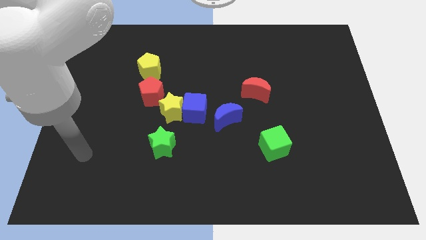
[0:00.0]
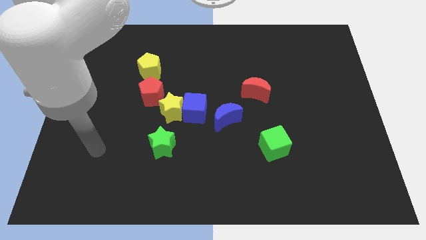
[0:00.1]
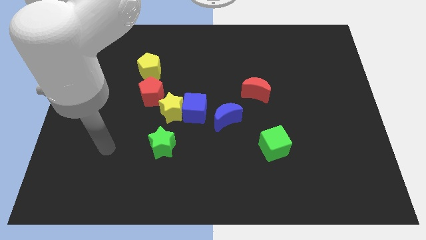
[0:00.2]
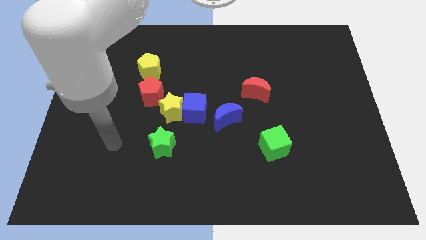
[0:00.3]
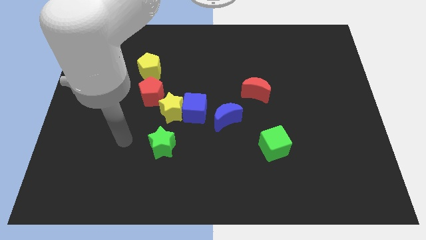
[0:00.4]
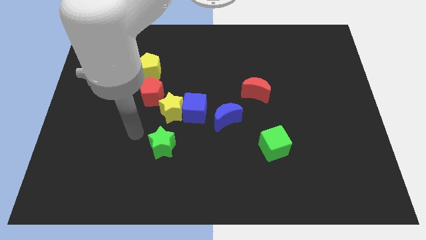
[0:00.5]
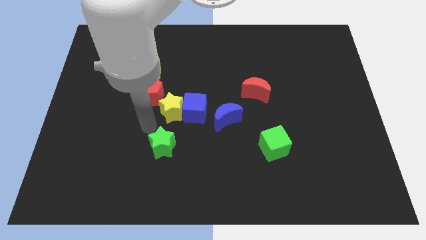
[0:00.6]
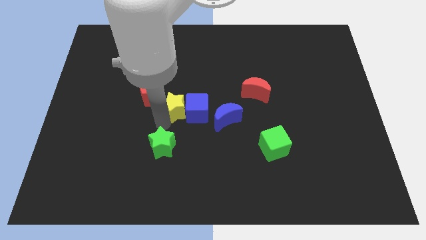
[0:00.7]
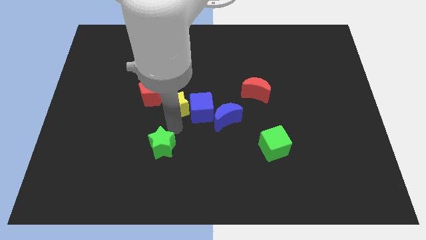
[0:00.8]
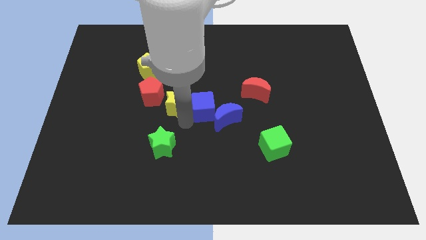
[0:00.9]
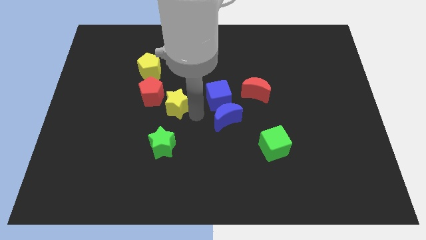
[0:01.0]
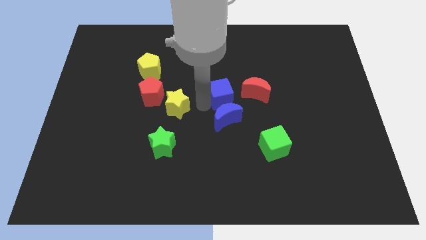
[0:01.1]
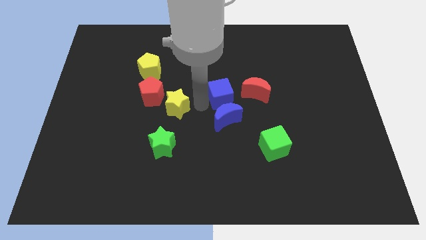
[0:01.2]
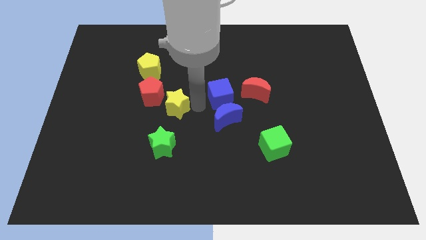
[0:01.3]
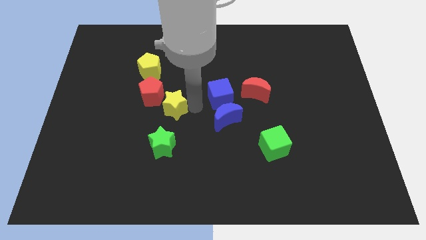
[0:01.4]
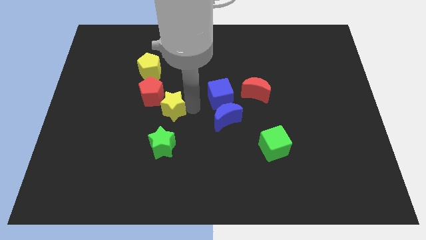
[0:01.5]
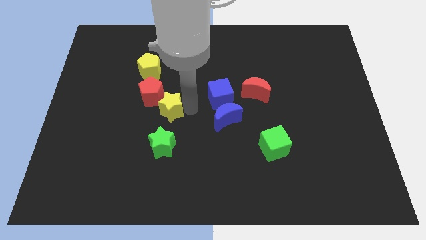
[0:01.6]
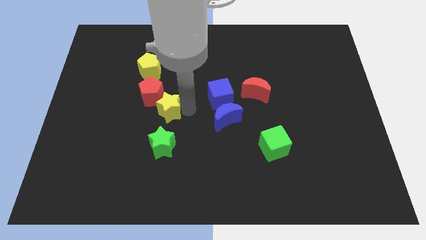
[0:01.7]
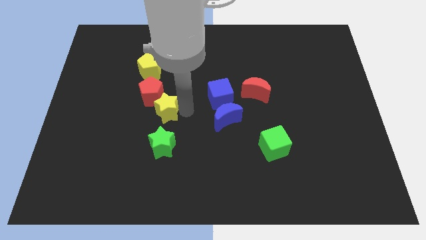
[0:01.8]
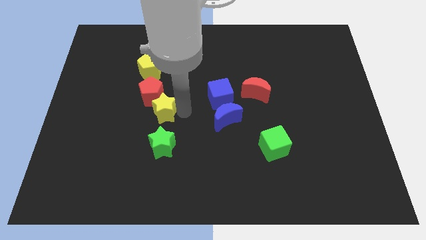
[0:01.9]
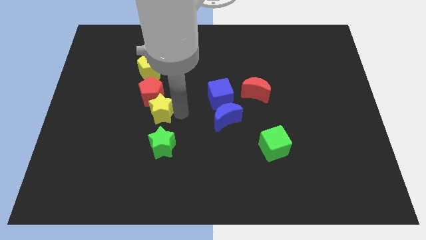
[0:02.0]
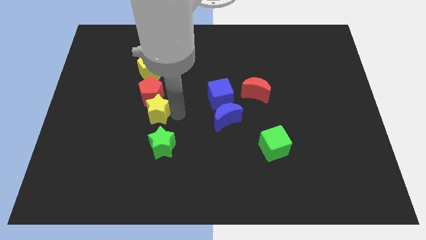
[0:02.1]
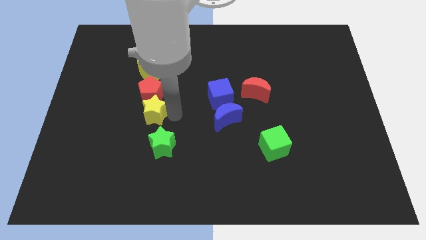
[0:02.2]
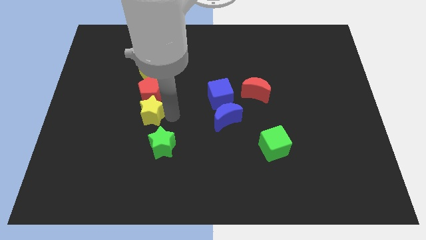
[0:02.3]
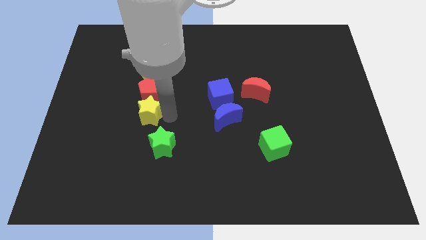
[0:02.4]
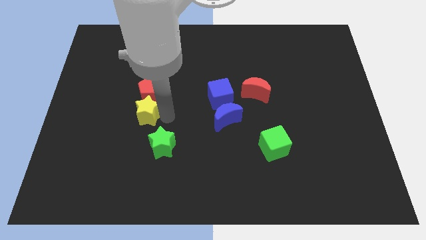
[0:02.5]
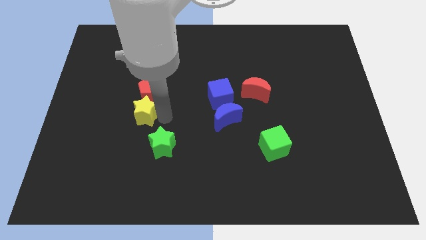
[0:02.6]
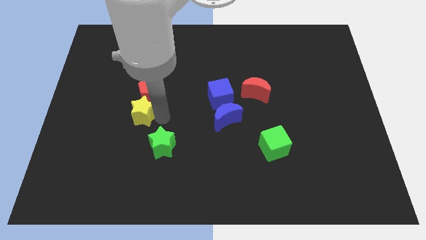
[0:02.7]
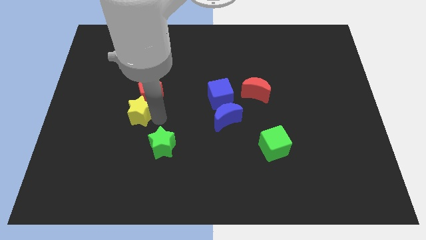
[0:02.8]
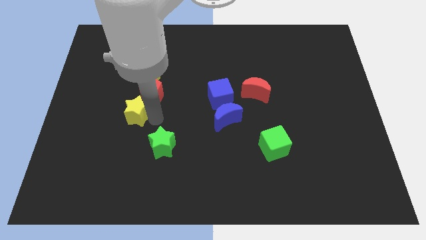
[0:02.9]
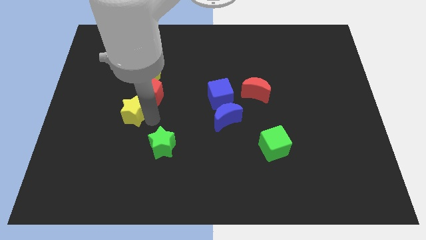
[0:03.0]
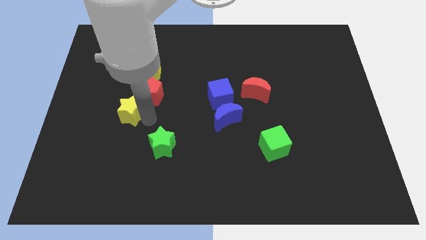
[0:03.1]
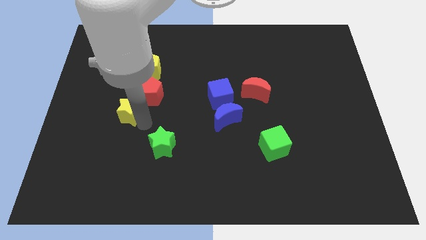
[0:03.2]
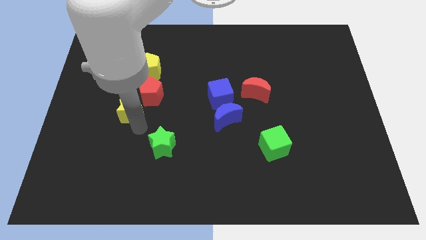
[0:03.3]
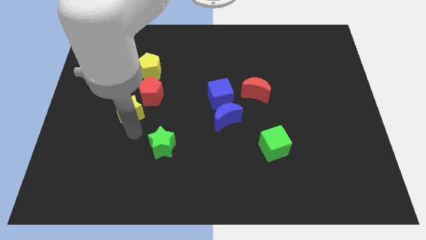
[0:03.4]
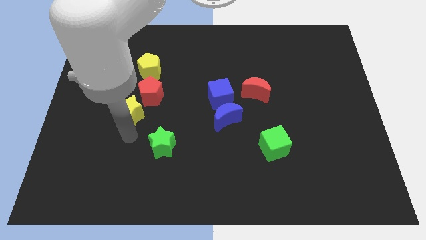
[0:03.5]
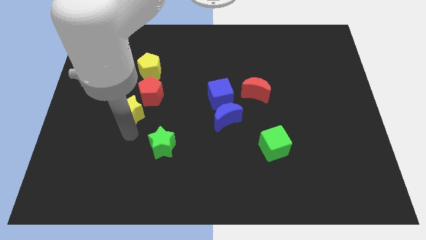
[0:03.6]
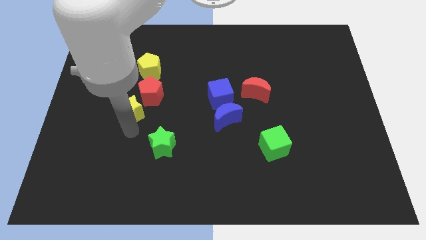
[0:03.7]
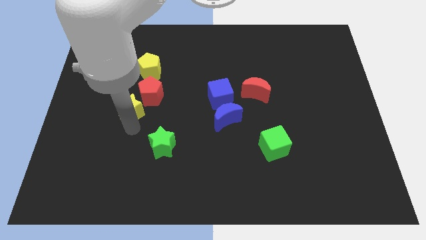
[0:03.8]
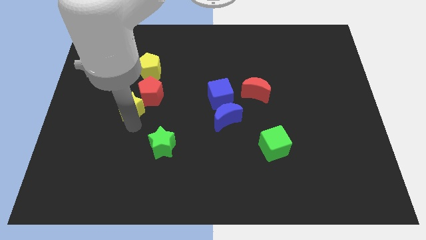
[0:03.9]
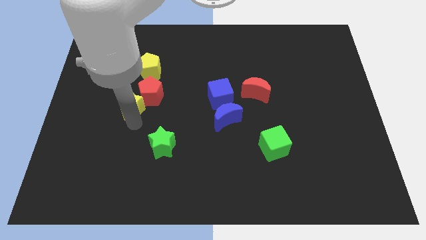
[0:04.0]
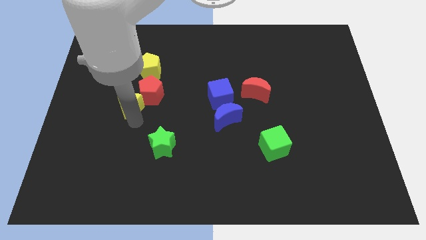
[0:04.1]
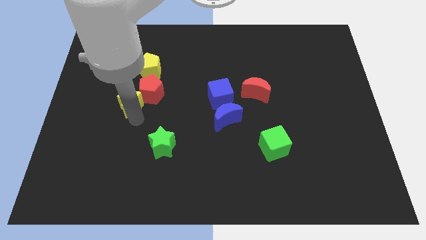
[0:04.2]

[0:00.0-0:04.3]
slide the yellow star a little bit up and left diagonally

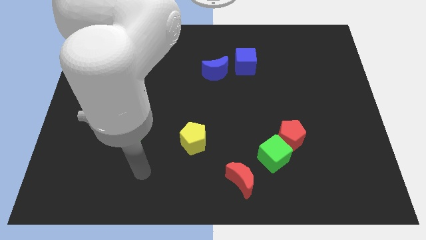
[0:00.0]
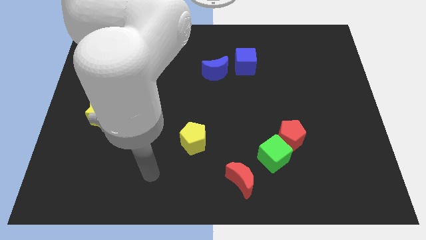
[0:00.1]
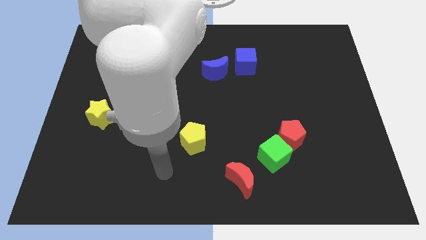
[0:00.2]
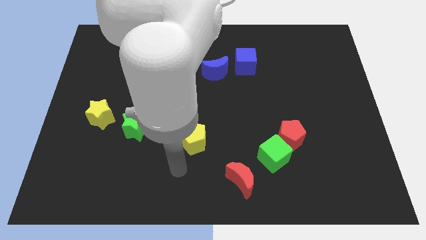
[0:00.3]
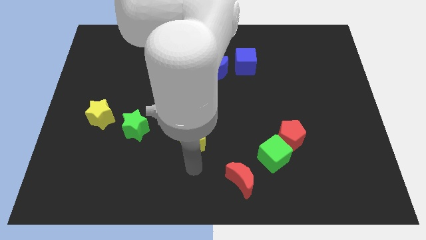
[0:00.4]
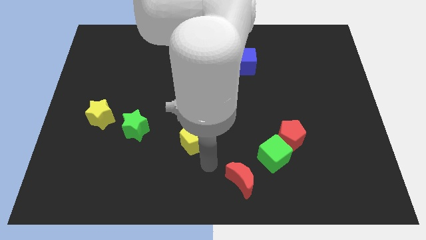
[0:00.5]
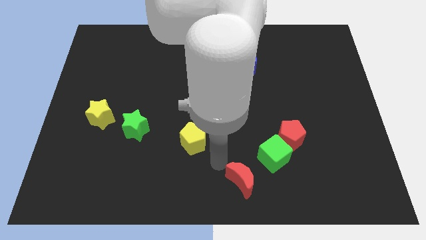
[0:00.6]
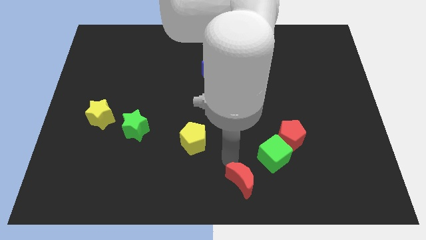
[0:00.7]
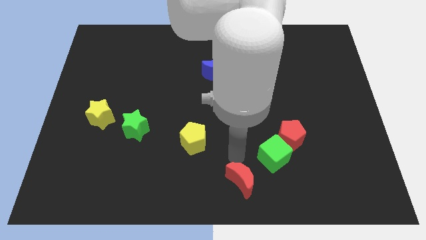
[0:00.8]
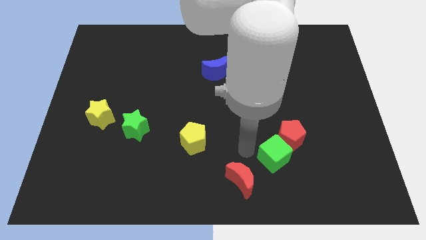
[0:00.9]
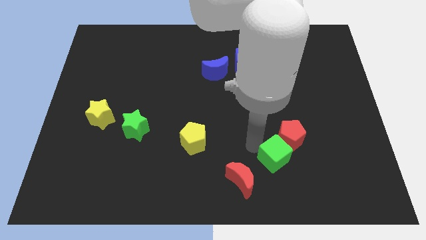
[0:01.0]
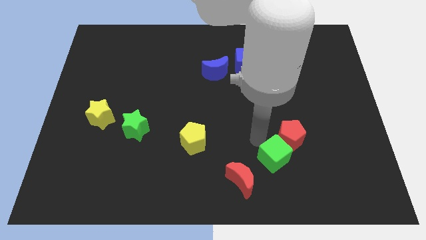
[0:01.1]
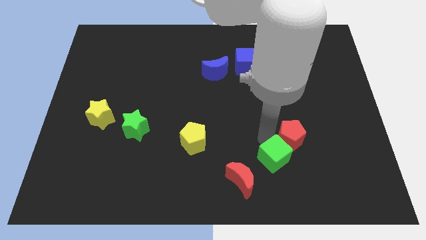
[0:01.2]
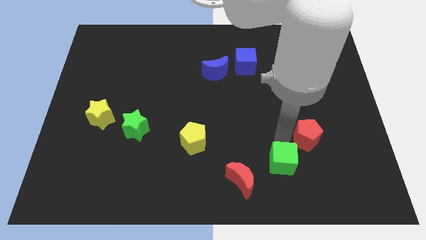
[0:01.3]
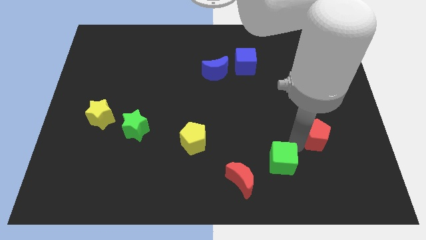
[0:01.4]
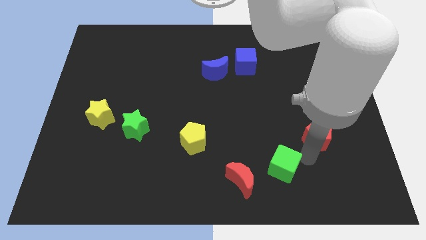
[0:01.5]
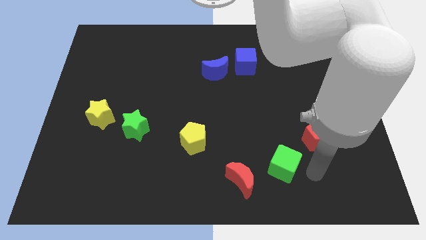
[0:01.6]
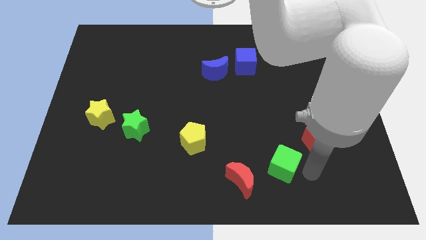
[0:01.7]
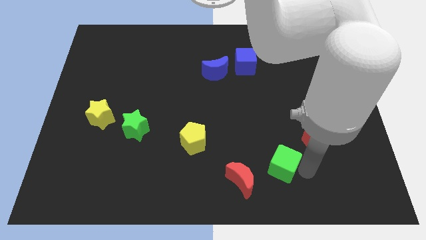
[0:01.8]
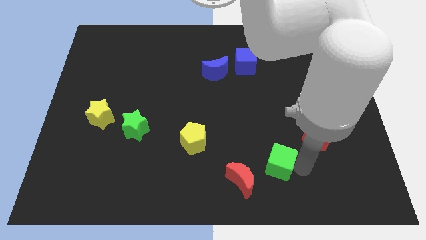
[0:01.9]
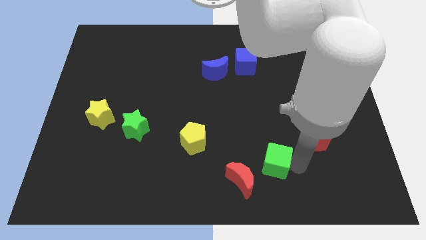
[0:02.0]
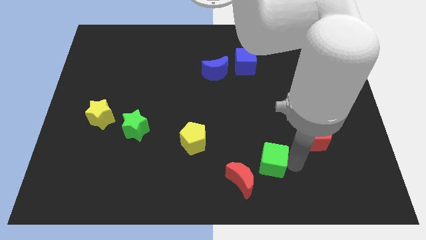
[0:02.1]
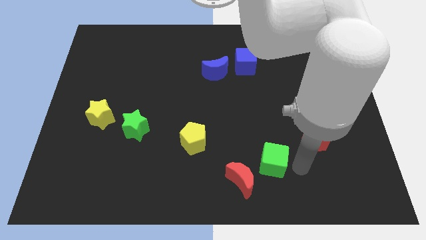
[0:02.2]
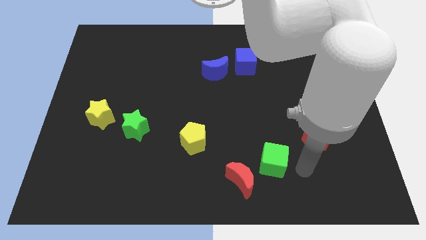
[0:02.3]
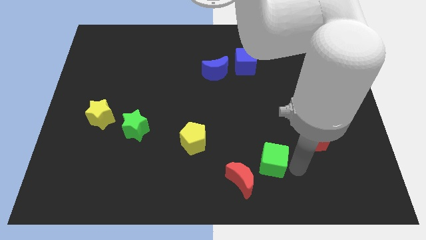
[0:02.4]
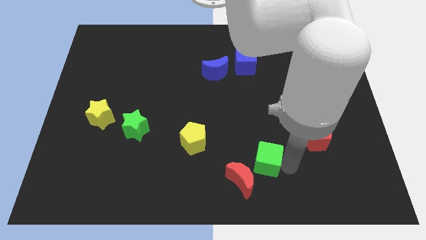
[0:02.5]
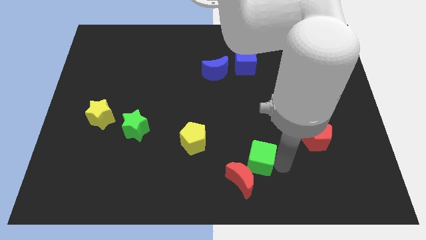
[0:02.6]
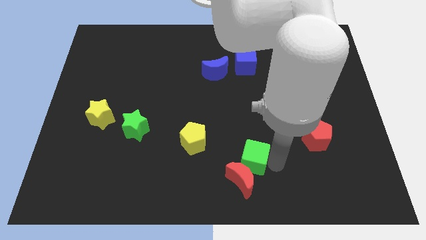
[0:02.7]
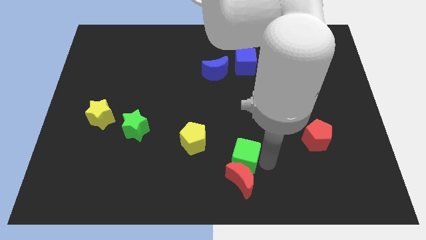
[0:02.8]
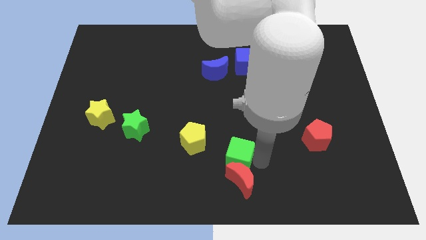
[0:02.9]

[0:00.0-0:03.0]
slightly slide the green cube to the left

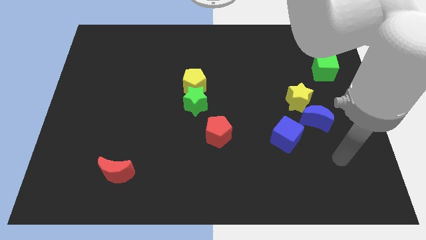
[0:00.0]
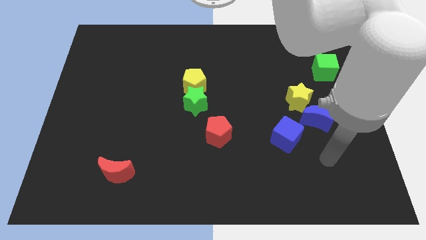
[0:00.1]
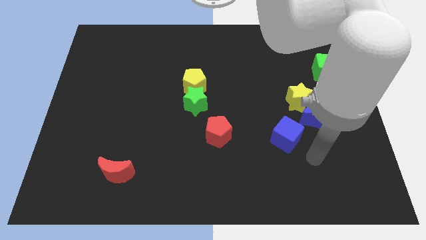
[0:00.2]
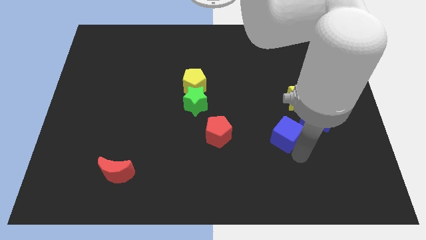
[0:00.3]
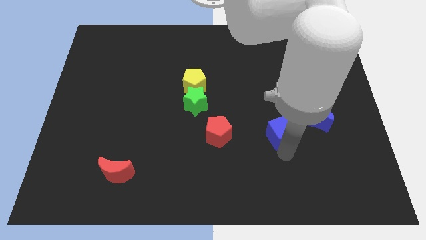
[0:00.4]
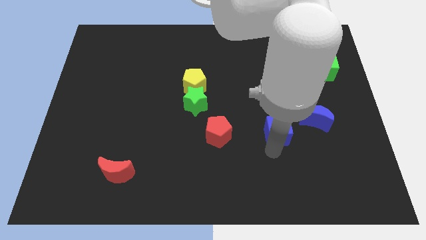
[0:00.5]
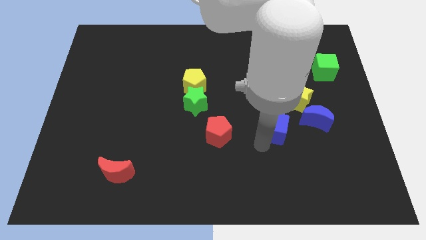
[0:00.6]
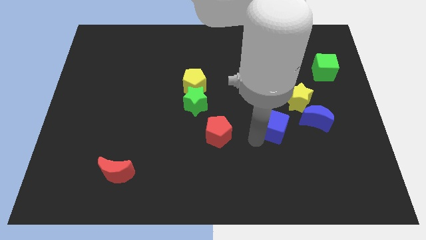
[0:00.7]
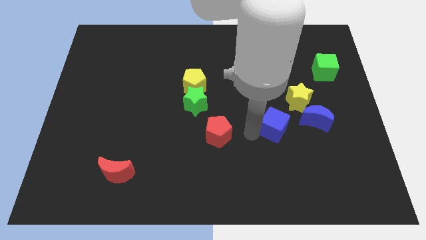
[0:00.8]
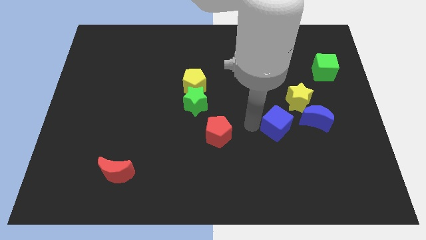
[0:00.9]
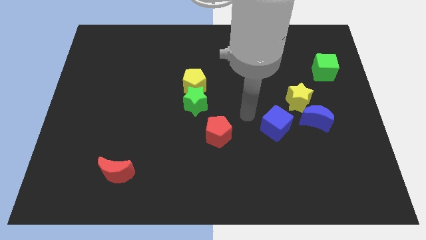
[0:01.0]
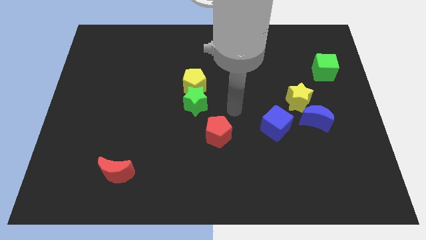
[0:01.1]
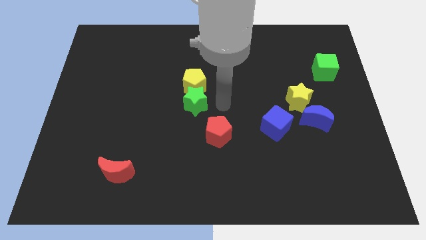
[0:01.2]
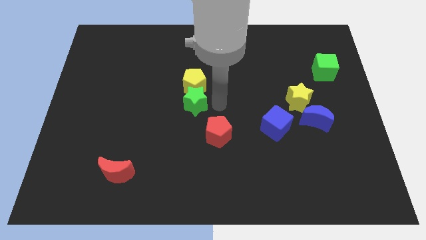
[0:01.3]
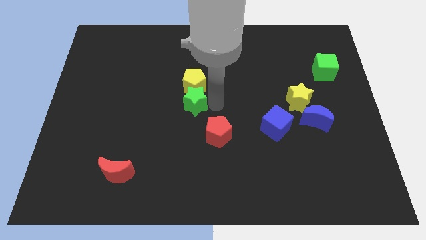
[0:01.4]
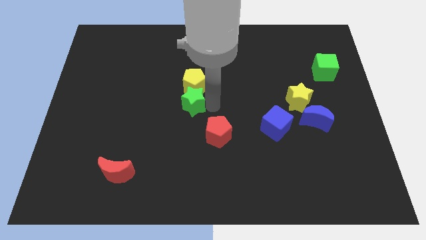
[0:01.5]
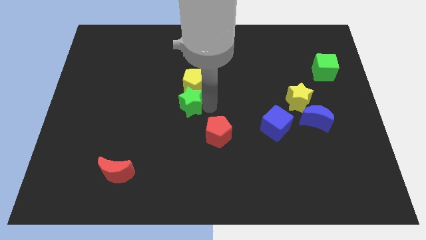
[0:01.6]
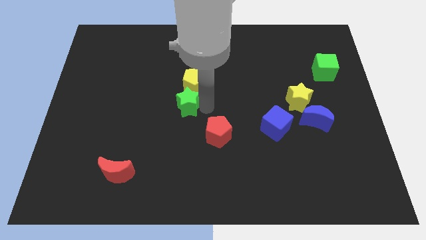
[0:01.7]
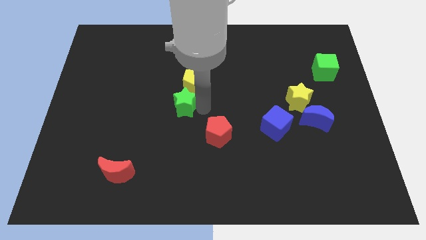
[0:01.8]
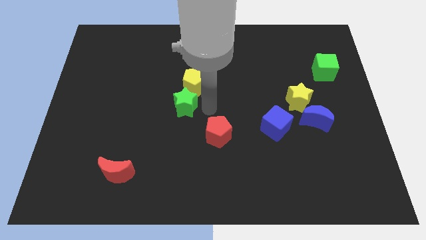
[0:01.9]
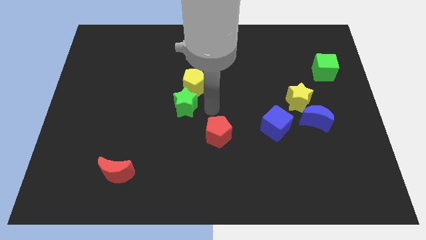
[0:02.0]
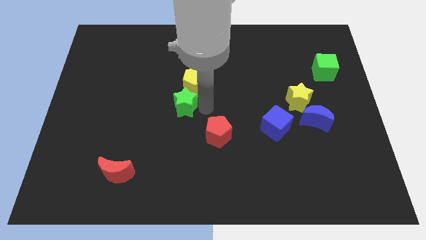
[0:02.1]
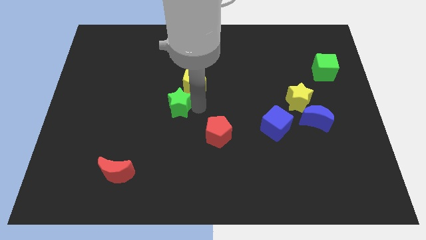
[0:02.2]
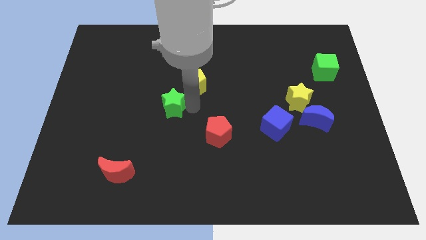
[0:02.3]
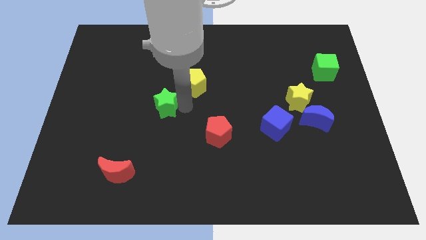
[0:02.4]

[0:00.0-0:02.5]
push the green star left a little bit
